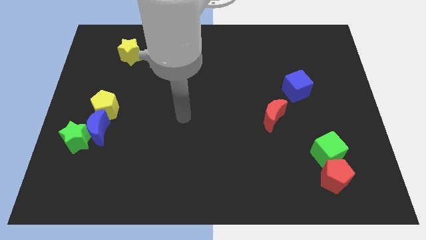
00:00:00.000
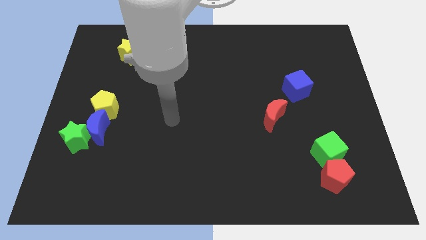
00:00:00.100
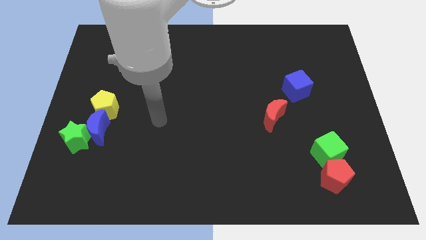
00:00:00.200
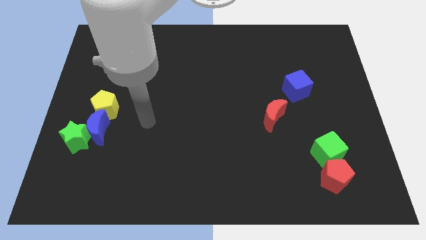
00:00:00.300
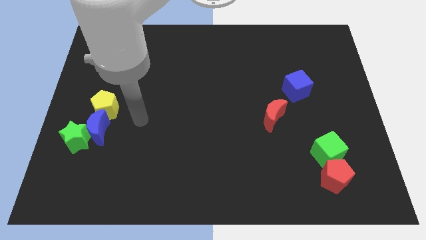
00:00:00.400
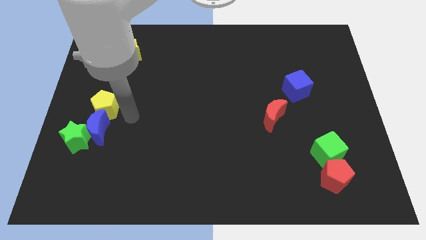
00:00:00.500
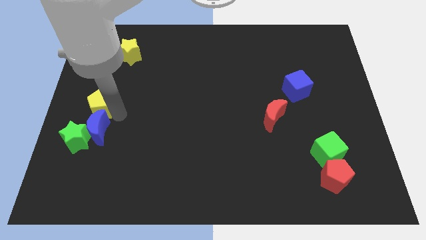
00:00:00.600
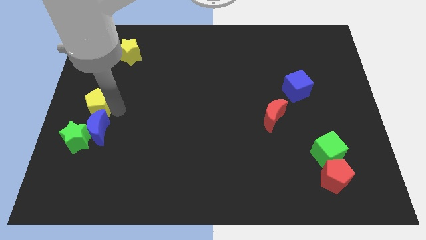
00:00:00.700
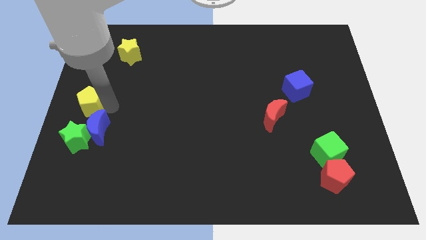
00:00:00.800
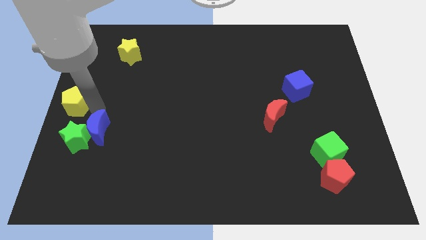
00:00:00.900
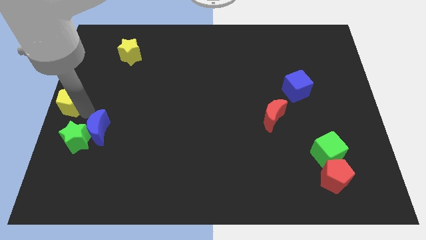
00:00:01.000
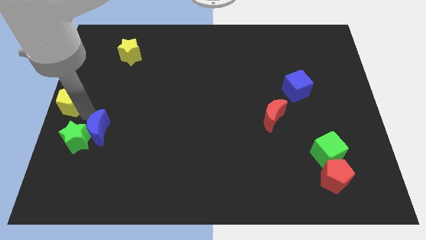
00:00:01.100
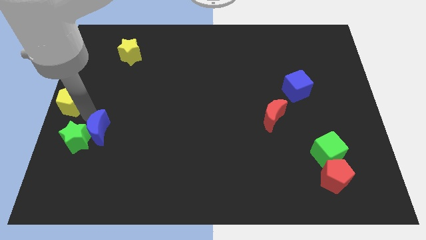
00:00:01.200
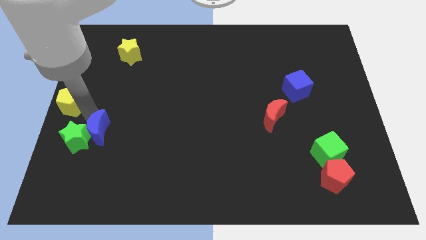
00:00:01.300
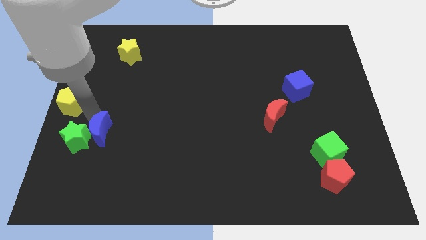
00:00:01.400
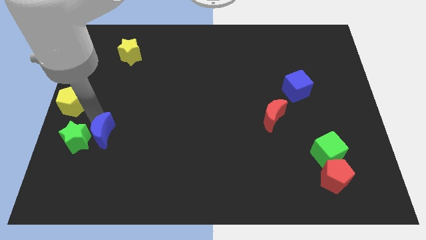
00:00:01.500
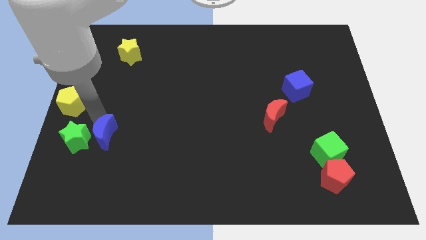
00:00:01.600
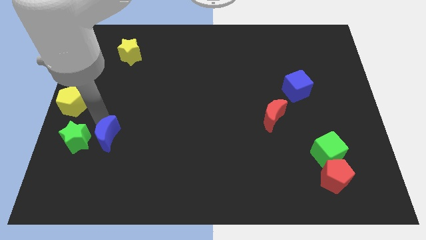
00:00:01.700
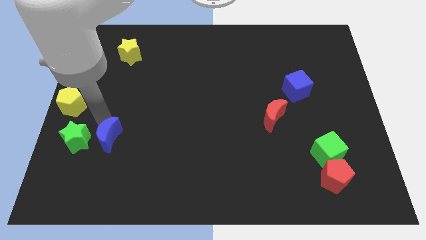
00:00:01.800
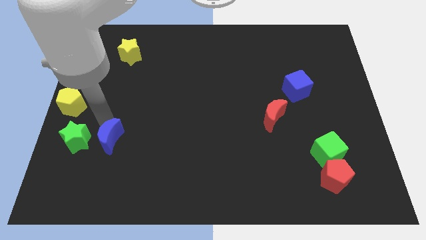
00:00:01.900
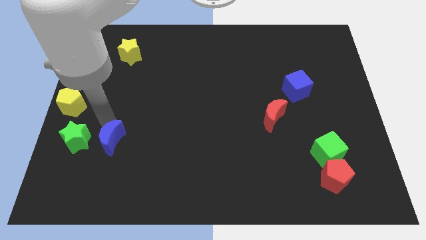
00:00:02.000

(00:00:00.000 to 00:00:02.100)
separate the blue moon from the green star and yellow pentagon

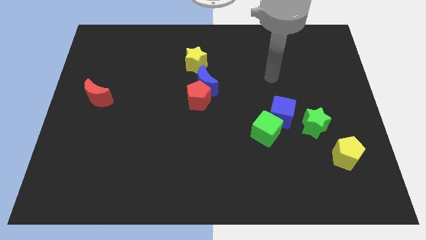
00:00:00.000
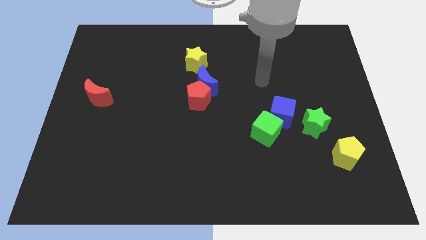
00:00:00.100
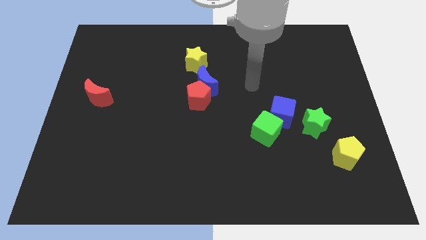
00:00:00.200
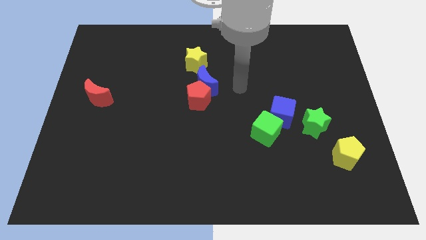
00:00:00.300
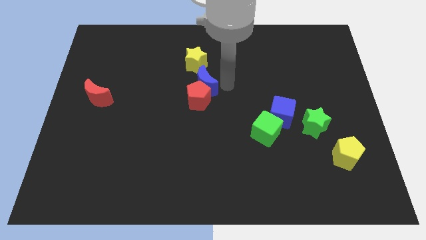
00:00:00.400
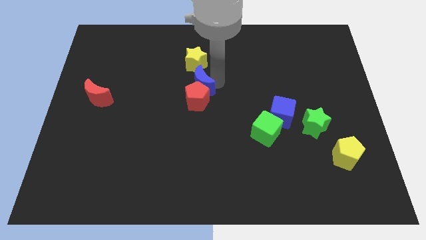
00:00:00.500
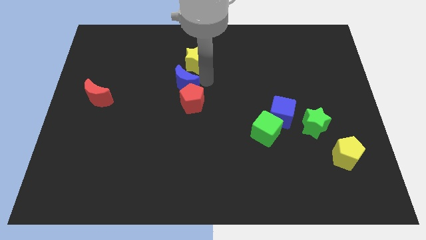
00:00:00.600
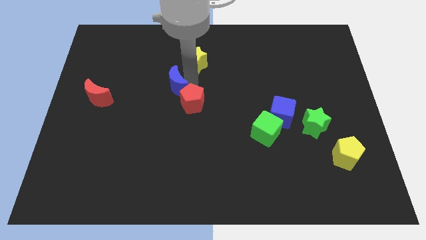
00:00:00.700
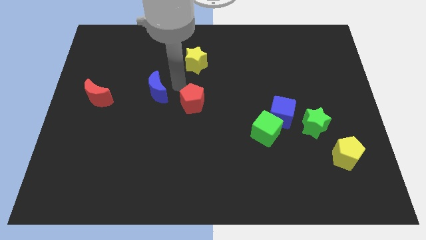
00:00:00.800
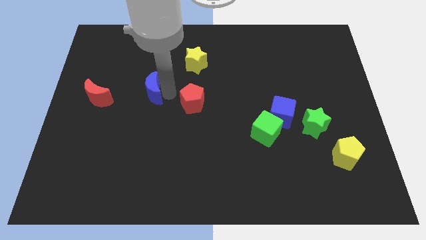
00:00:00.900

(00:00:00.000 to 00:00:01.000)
move the red pentagon away from the blue moon

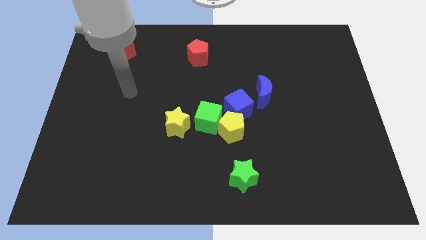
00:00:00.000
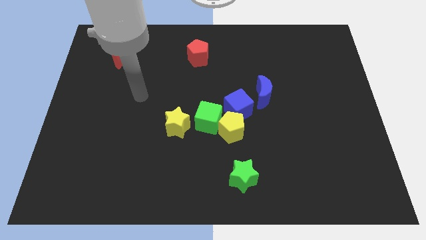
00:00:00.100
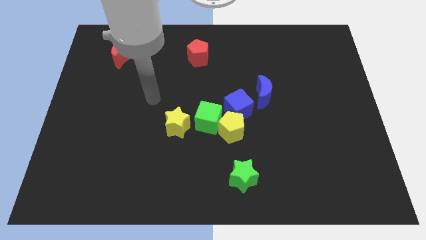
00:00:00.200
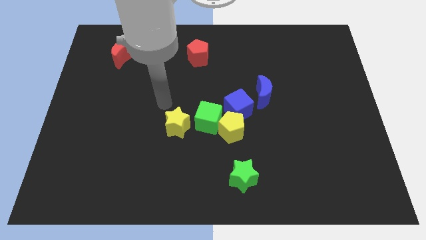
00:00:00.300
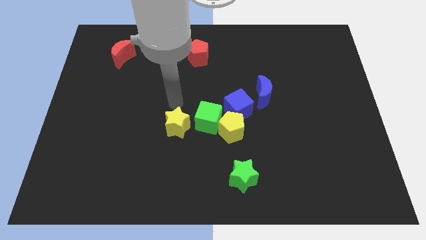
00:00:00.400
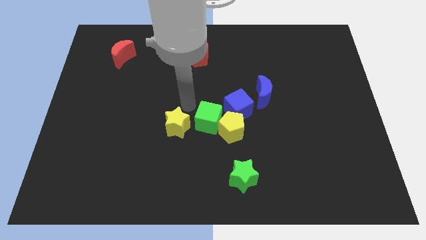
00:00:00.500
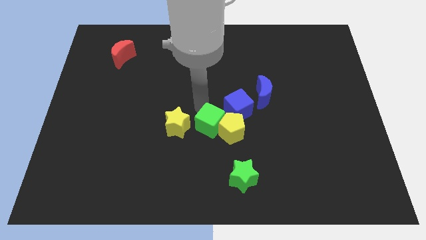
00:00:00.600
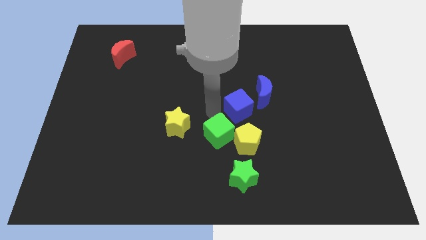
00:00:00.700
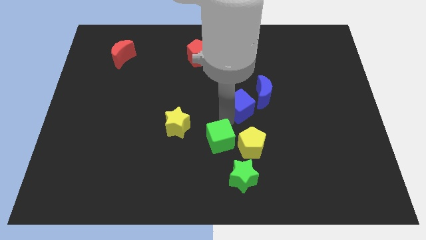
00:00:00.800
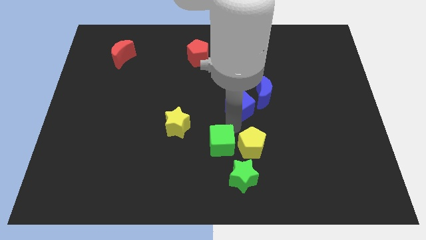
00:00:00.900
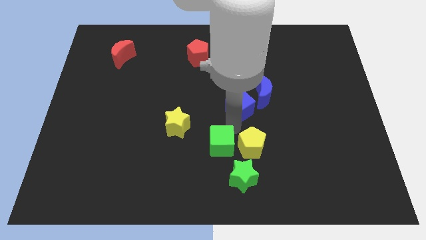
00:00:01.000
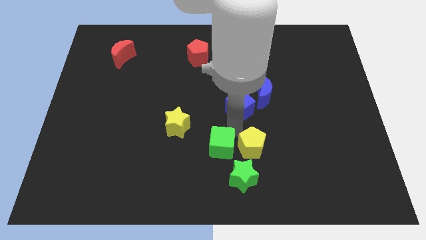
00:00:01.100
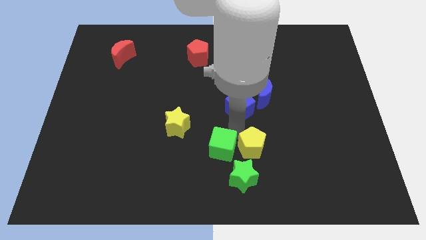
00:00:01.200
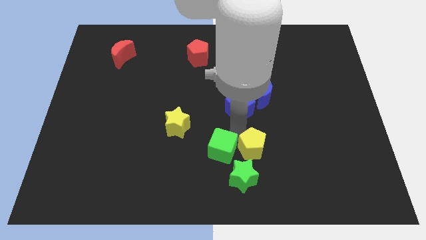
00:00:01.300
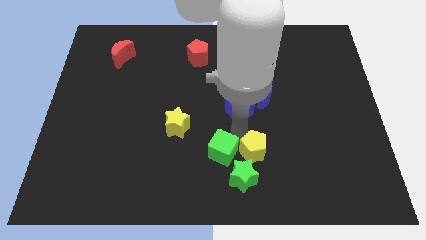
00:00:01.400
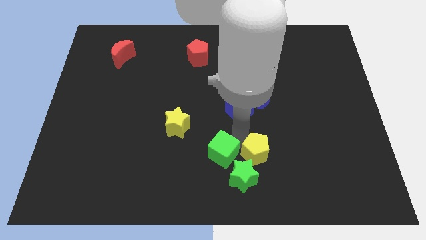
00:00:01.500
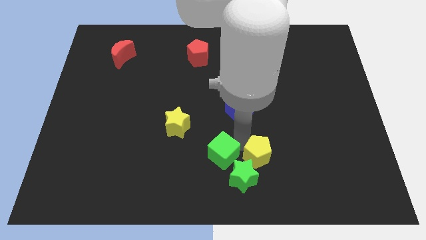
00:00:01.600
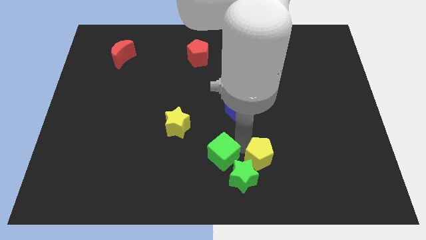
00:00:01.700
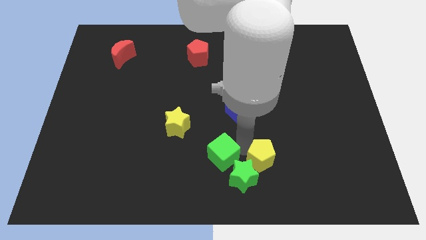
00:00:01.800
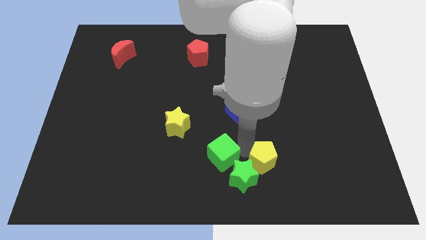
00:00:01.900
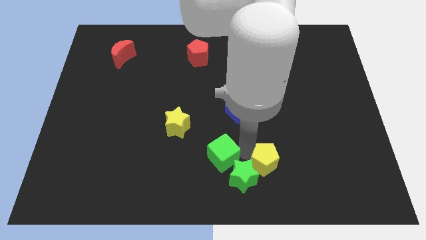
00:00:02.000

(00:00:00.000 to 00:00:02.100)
pull the yellow pentagon apart from the green cube and blue cube

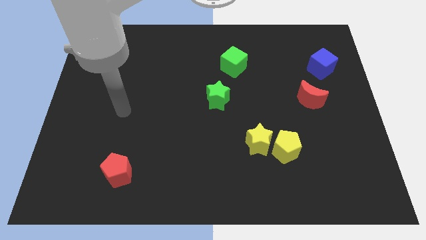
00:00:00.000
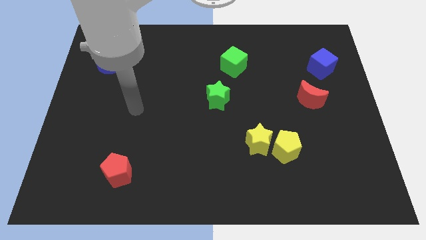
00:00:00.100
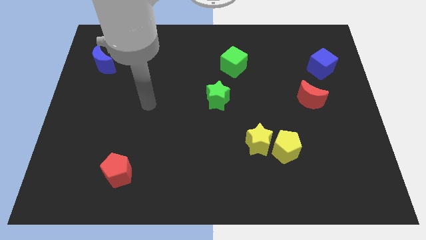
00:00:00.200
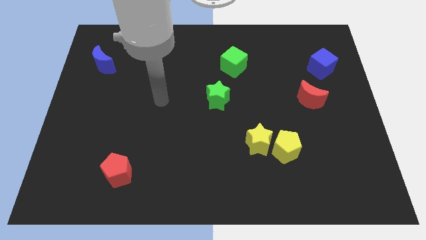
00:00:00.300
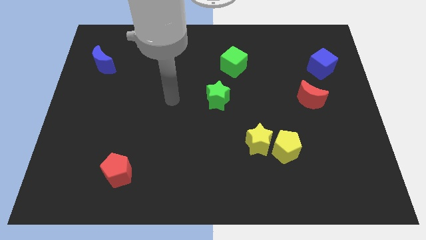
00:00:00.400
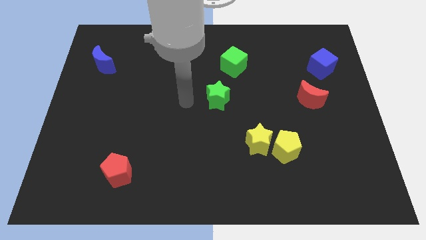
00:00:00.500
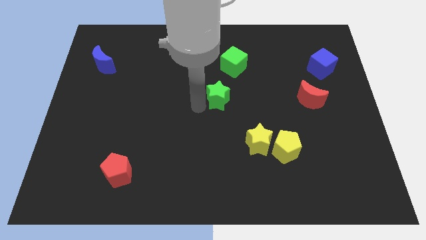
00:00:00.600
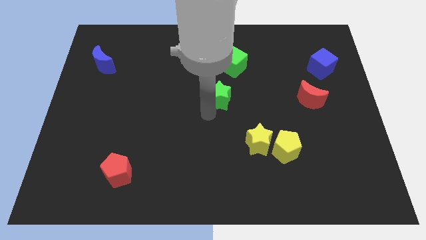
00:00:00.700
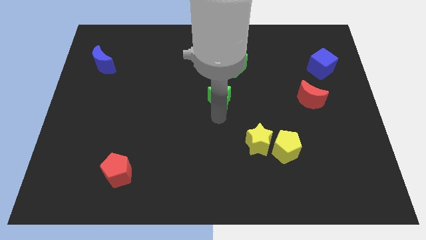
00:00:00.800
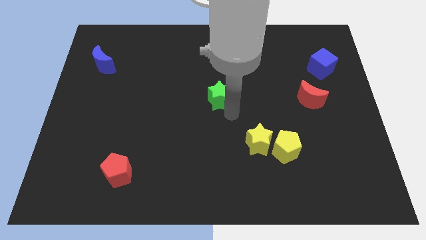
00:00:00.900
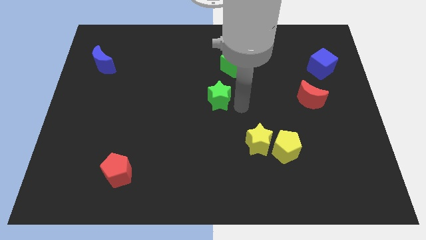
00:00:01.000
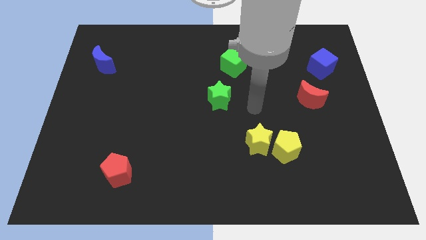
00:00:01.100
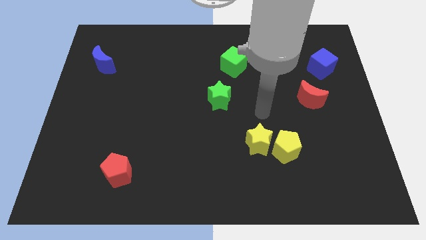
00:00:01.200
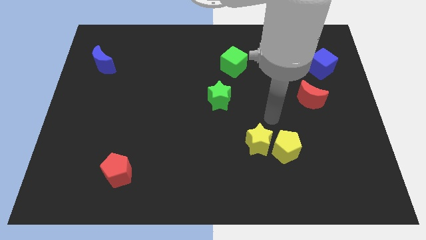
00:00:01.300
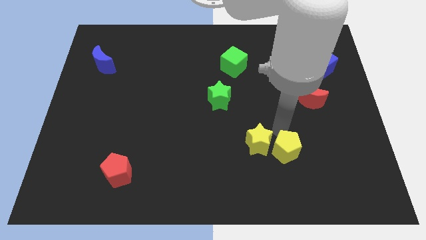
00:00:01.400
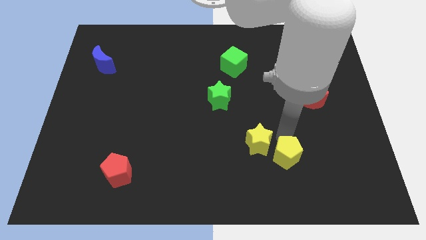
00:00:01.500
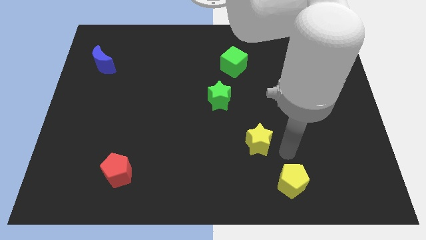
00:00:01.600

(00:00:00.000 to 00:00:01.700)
separate the yellow star from the yellow pentagon

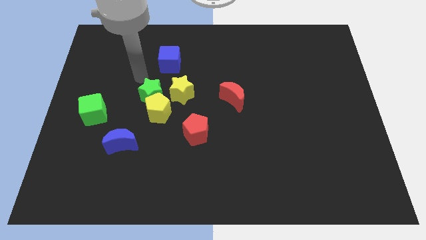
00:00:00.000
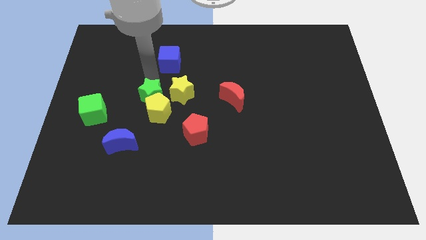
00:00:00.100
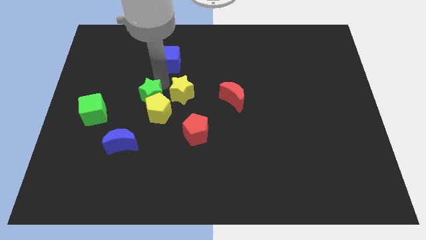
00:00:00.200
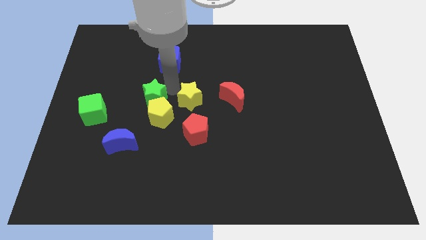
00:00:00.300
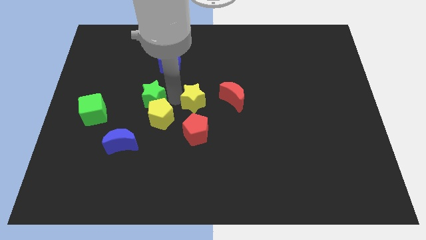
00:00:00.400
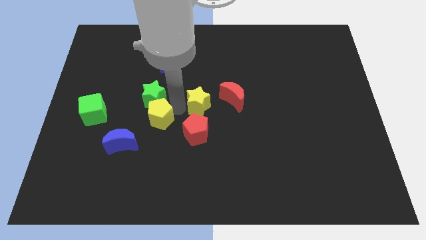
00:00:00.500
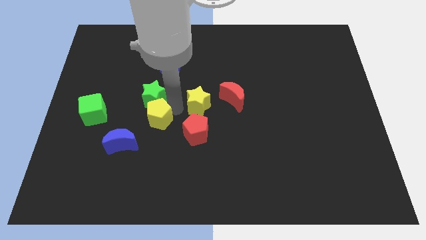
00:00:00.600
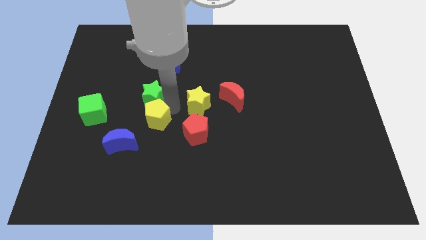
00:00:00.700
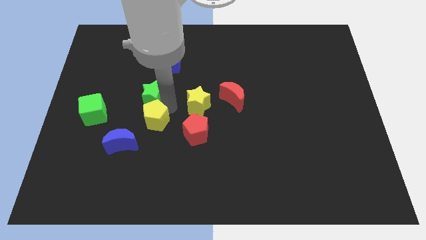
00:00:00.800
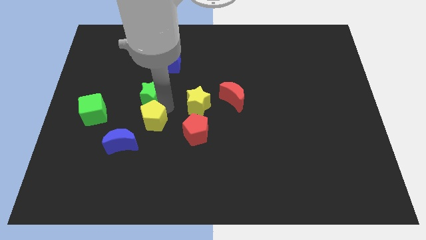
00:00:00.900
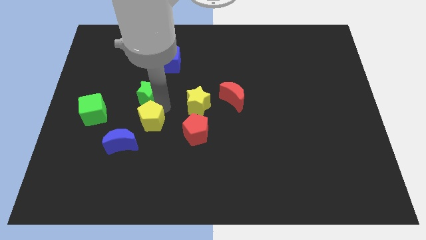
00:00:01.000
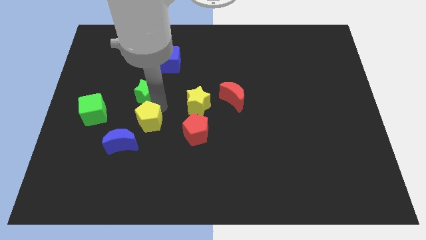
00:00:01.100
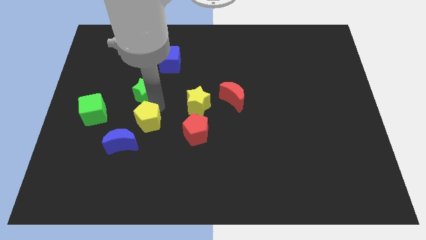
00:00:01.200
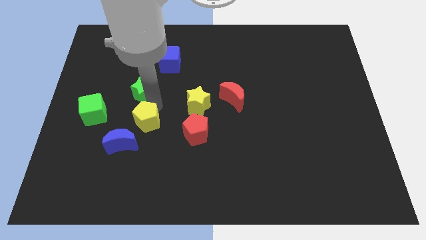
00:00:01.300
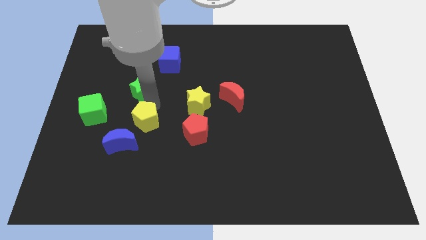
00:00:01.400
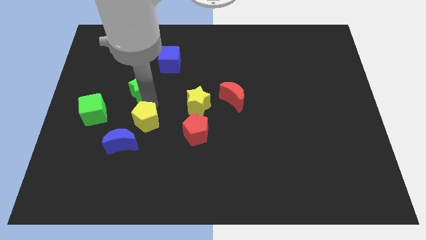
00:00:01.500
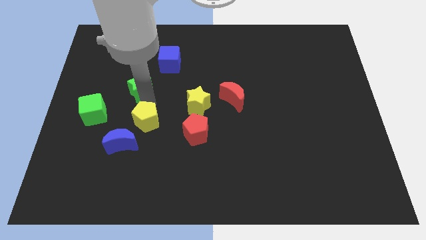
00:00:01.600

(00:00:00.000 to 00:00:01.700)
move the green star away from the yellow pentagon and yellow star

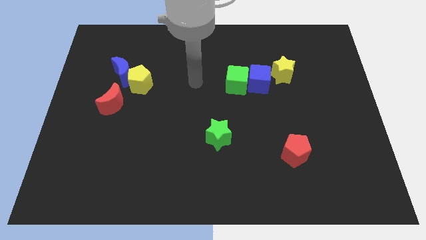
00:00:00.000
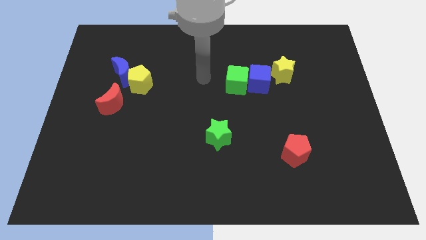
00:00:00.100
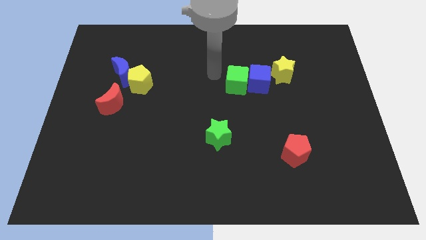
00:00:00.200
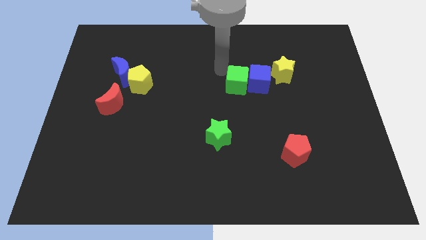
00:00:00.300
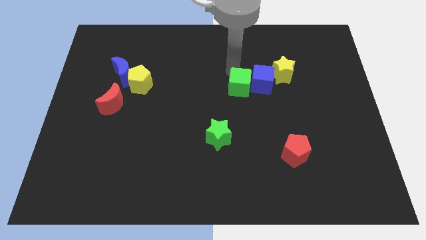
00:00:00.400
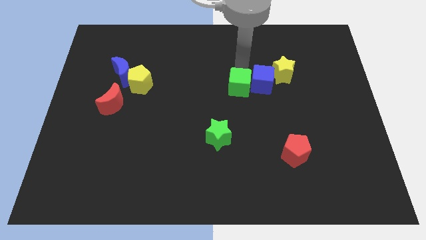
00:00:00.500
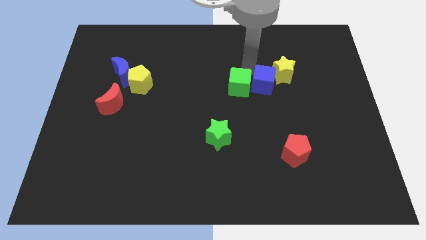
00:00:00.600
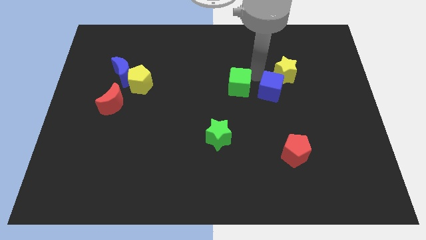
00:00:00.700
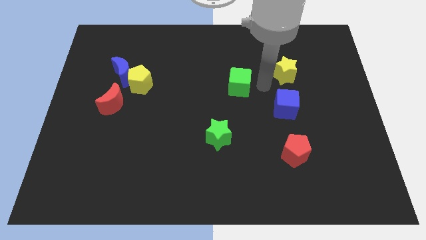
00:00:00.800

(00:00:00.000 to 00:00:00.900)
separate the green cube from the blue cube
